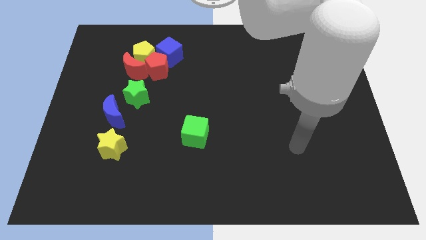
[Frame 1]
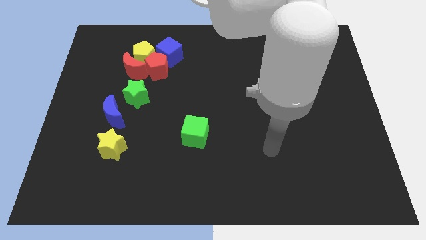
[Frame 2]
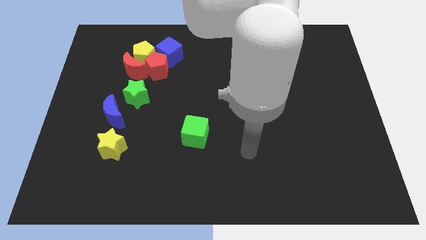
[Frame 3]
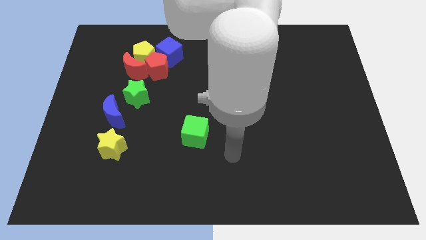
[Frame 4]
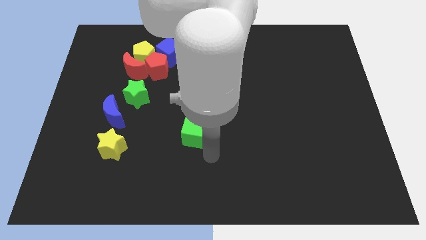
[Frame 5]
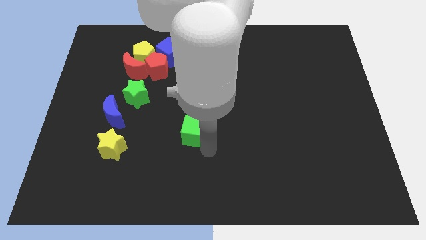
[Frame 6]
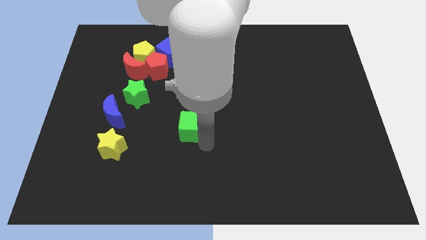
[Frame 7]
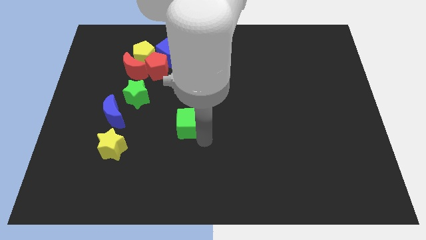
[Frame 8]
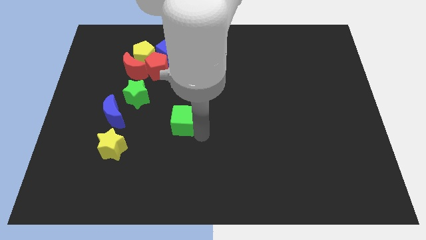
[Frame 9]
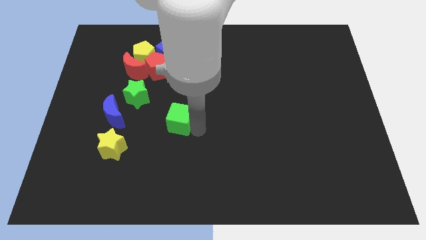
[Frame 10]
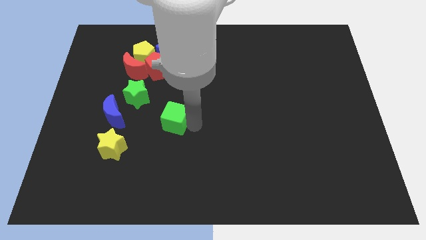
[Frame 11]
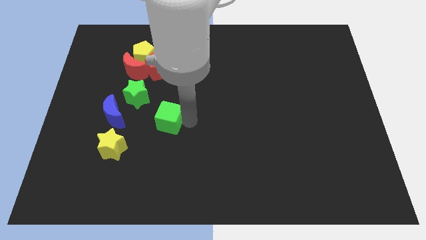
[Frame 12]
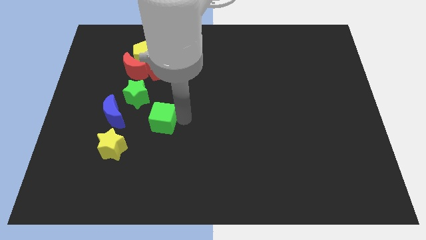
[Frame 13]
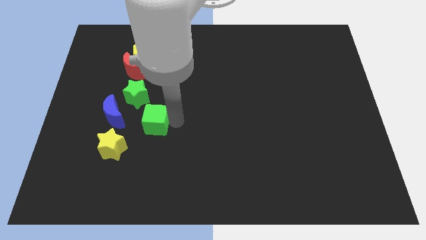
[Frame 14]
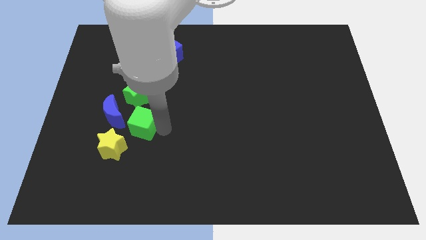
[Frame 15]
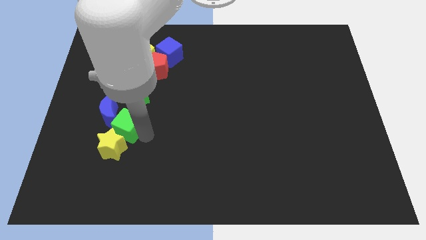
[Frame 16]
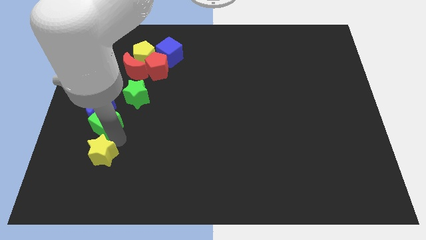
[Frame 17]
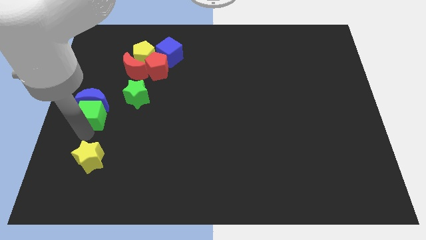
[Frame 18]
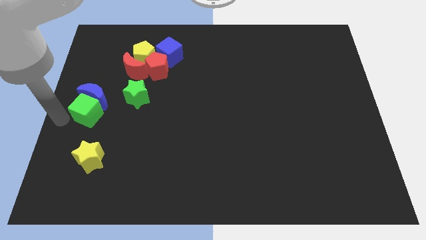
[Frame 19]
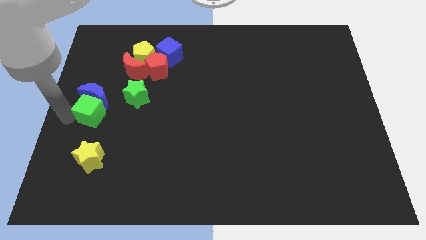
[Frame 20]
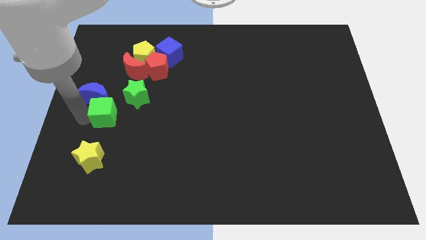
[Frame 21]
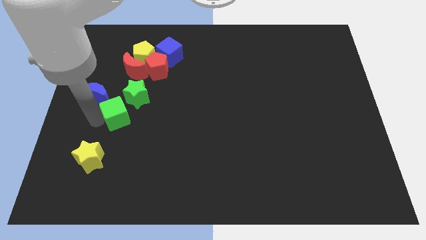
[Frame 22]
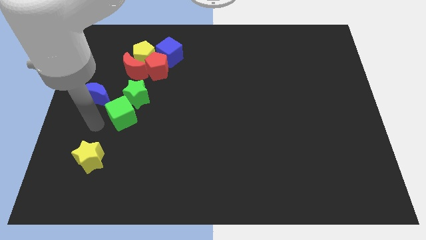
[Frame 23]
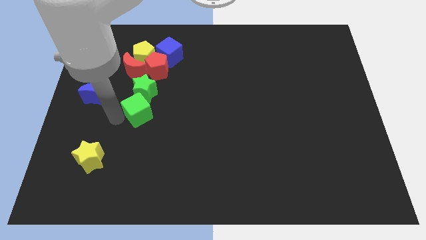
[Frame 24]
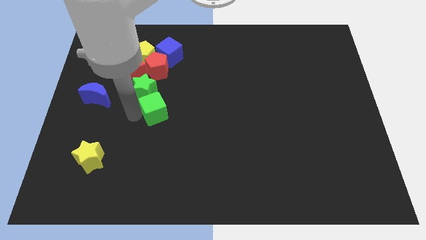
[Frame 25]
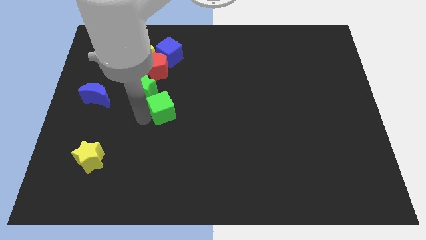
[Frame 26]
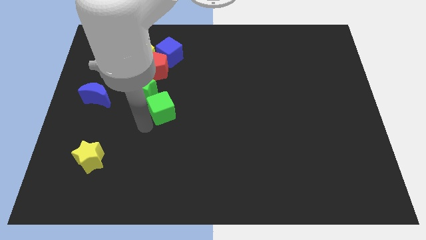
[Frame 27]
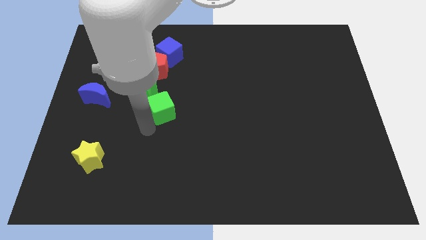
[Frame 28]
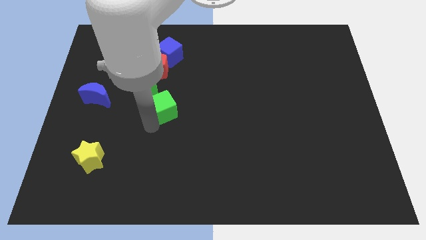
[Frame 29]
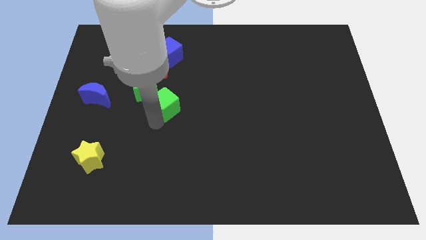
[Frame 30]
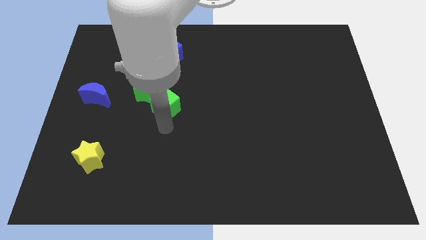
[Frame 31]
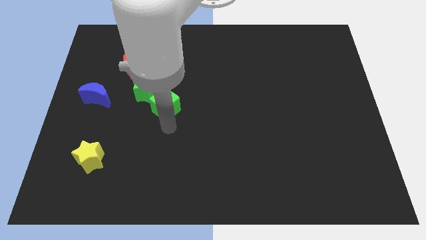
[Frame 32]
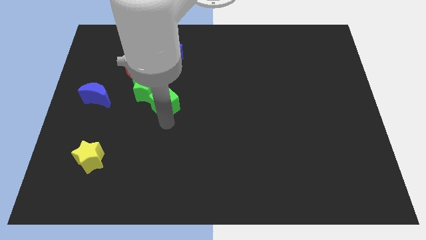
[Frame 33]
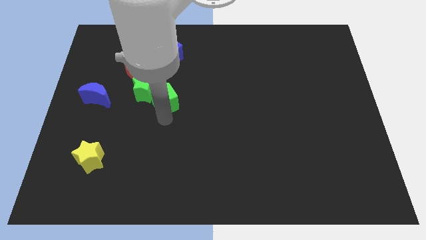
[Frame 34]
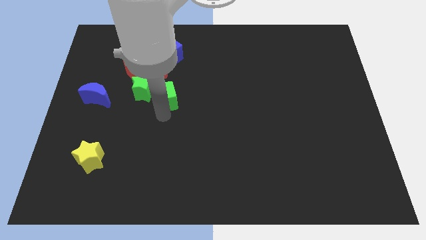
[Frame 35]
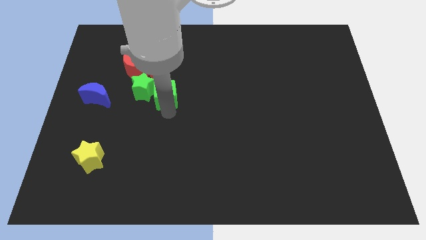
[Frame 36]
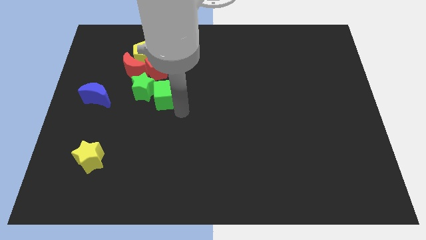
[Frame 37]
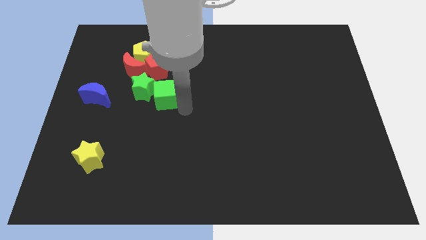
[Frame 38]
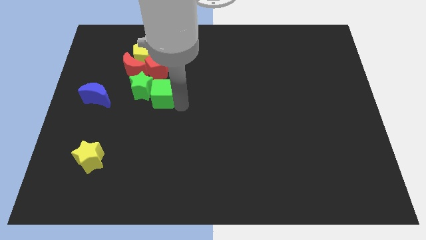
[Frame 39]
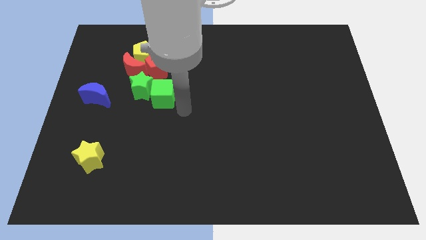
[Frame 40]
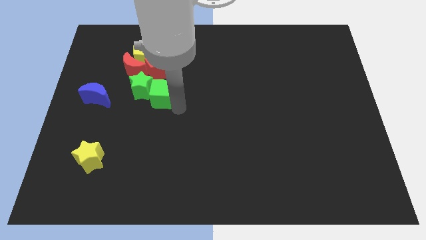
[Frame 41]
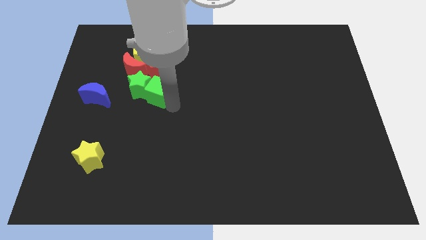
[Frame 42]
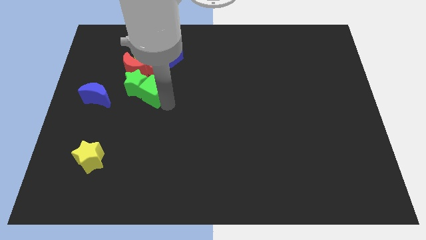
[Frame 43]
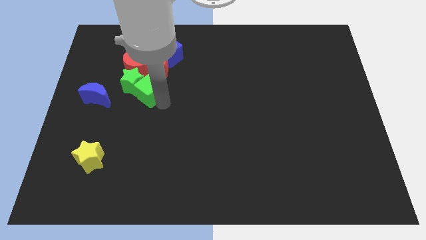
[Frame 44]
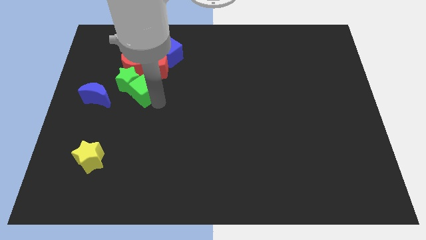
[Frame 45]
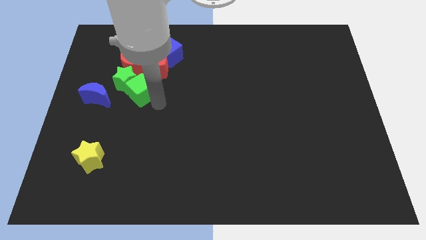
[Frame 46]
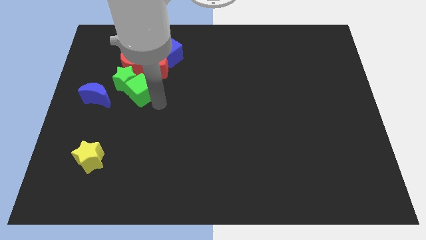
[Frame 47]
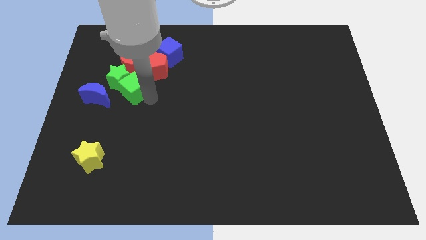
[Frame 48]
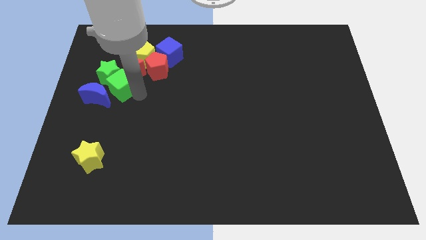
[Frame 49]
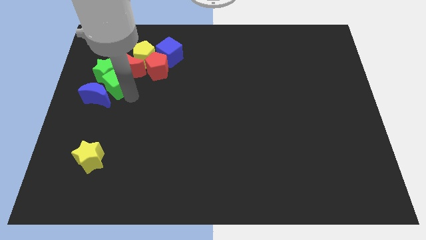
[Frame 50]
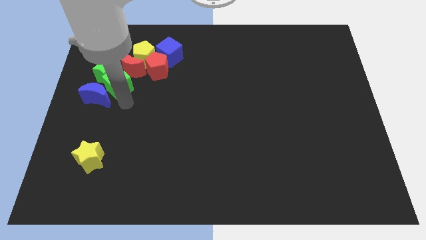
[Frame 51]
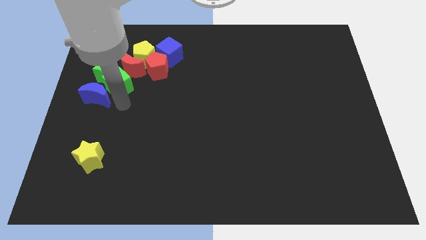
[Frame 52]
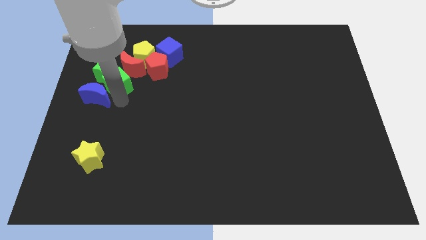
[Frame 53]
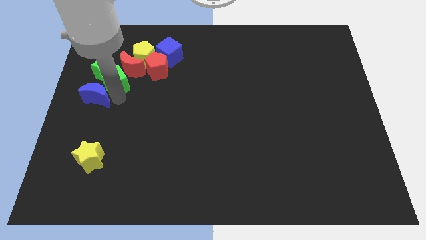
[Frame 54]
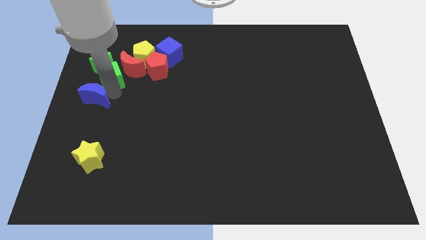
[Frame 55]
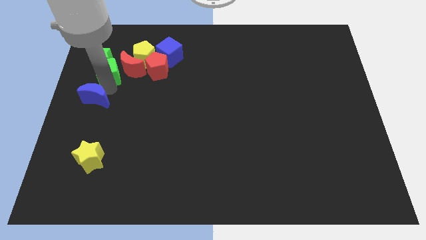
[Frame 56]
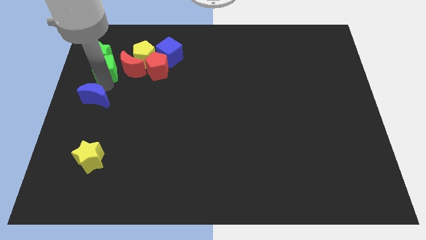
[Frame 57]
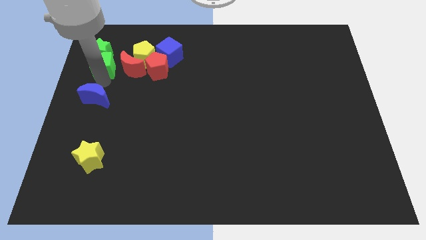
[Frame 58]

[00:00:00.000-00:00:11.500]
push the green cube to the top left of the red moon

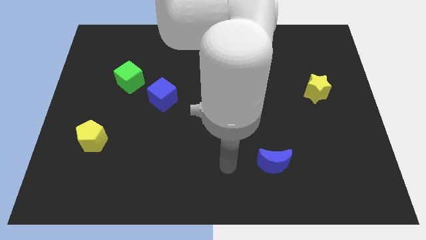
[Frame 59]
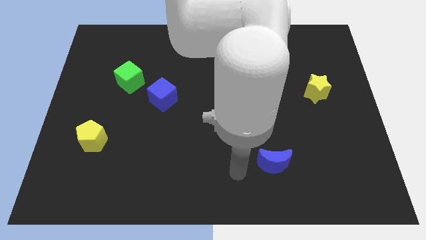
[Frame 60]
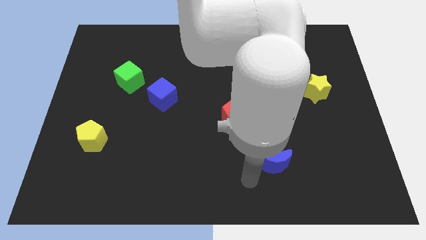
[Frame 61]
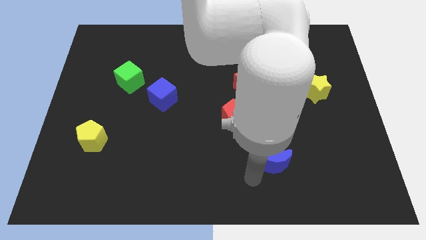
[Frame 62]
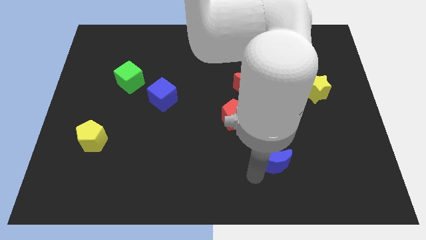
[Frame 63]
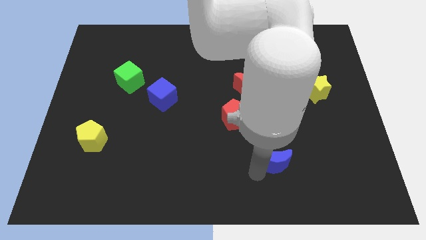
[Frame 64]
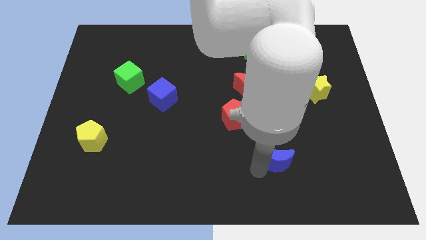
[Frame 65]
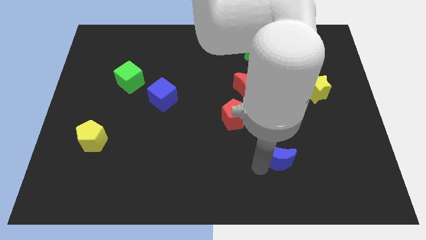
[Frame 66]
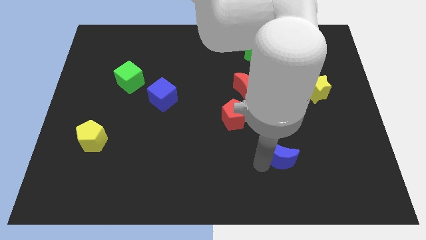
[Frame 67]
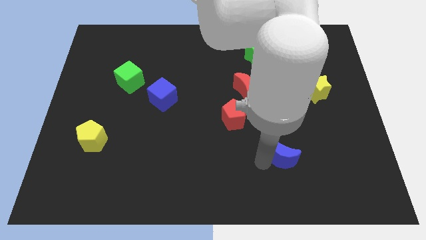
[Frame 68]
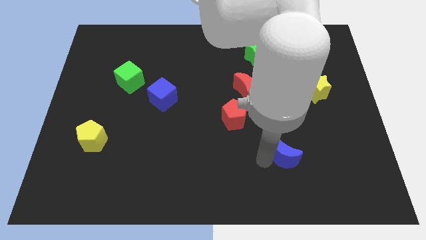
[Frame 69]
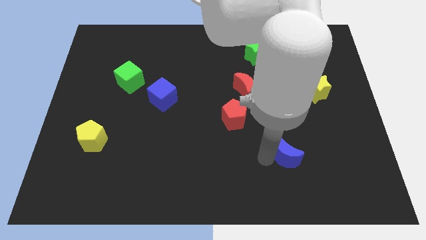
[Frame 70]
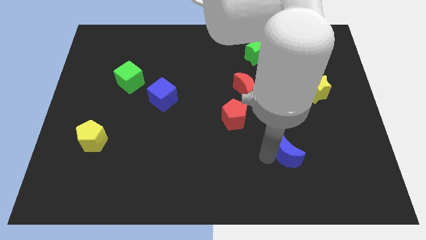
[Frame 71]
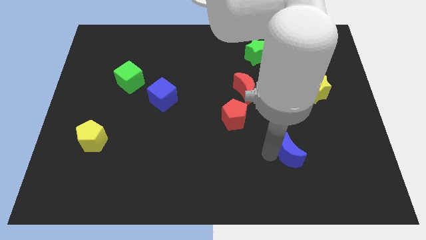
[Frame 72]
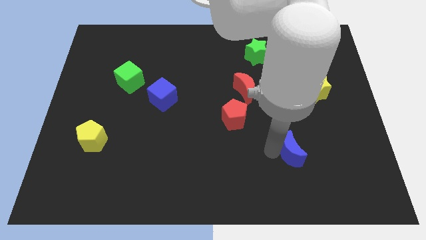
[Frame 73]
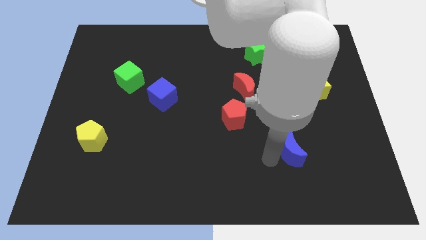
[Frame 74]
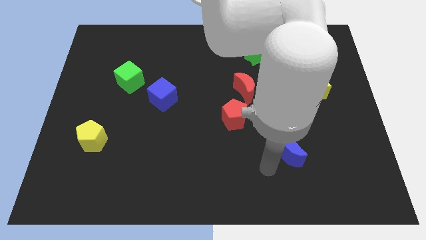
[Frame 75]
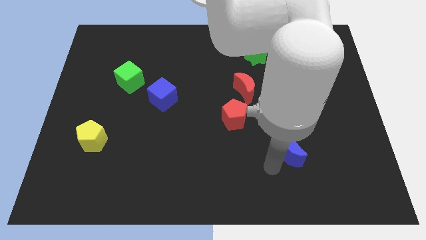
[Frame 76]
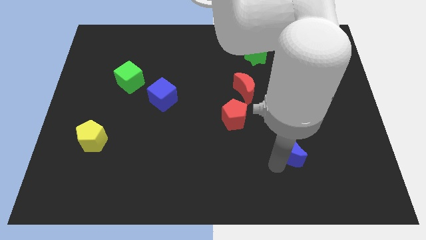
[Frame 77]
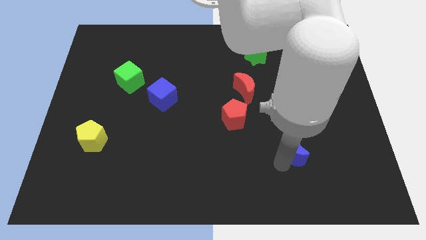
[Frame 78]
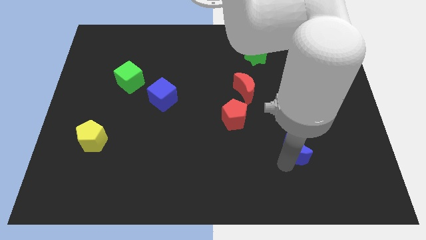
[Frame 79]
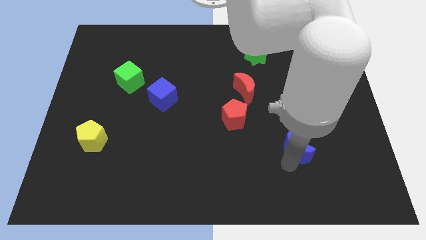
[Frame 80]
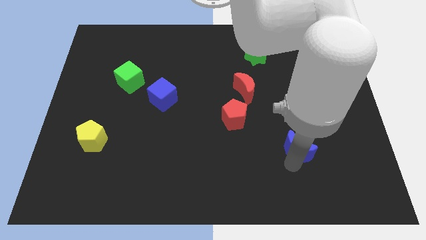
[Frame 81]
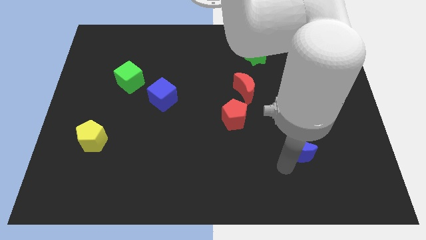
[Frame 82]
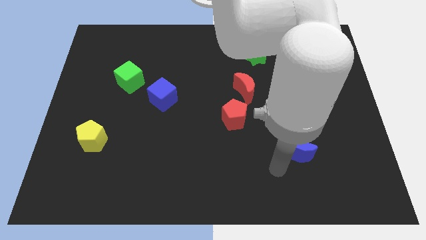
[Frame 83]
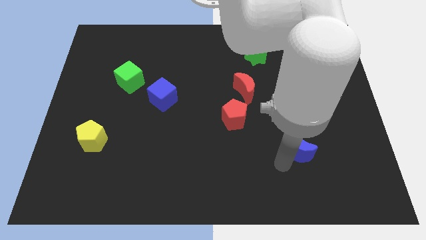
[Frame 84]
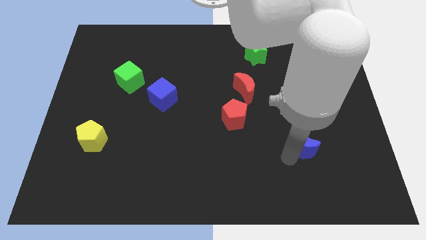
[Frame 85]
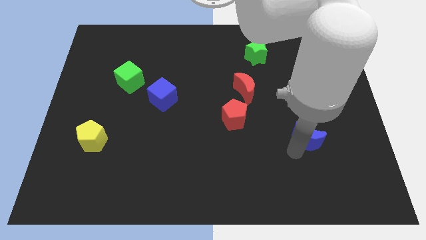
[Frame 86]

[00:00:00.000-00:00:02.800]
slide the blue moon below the yellow star
